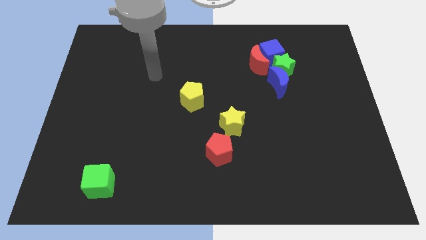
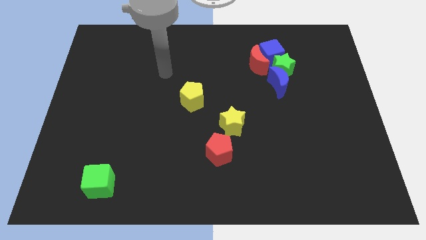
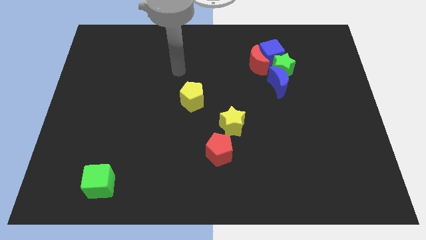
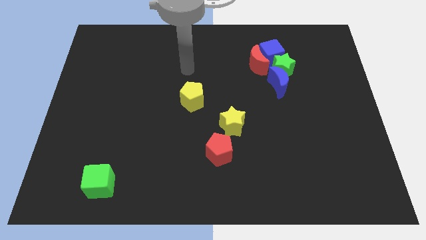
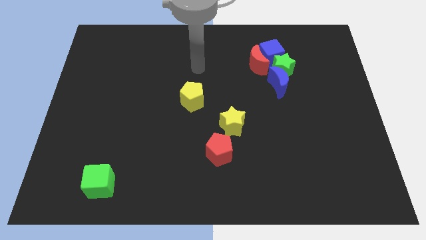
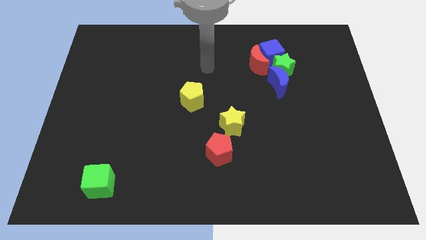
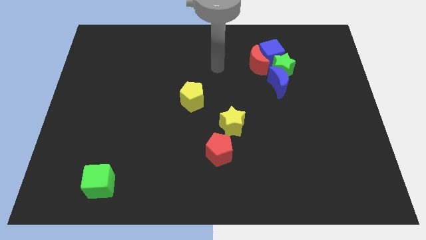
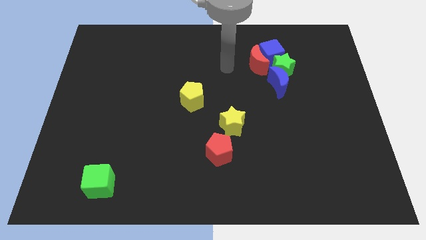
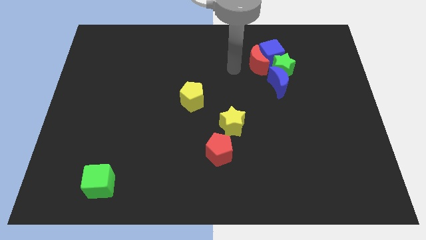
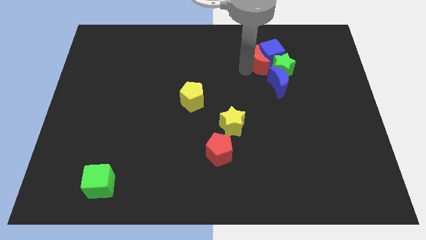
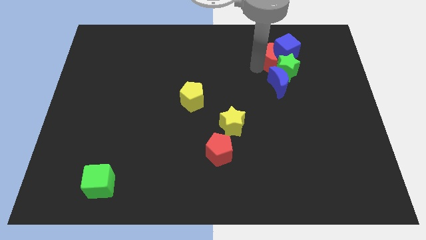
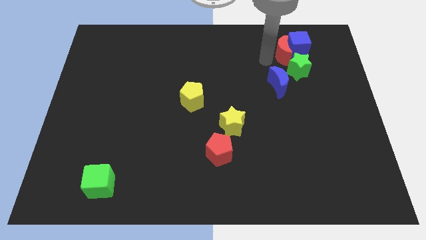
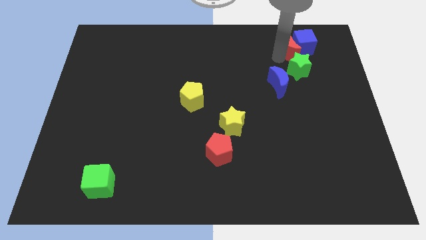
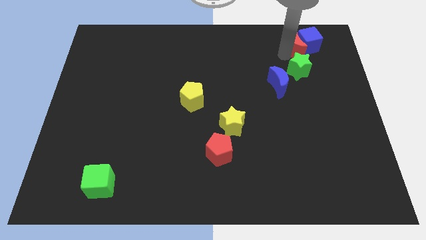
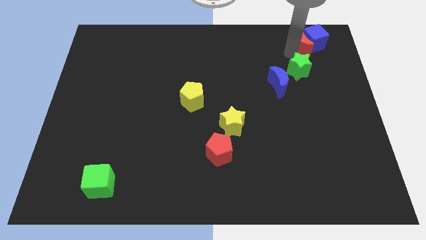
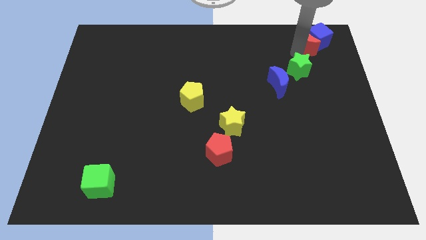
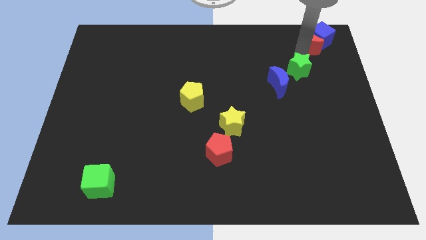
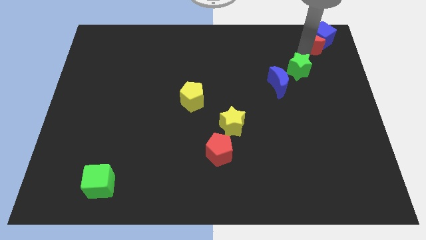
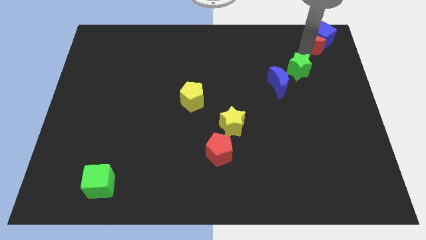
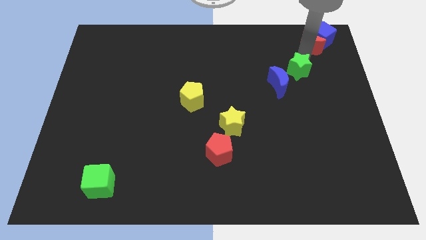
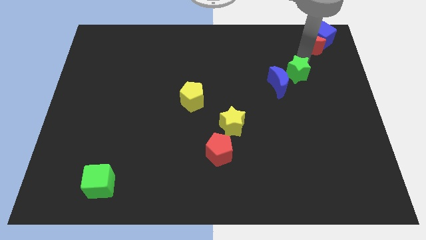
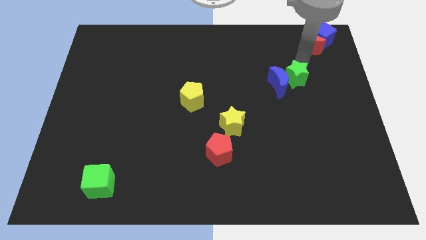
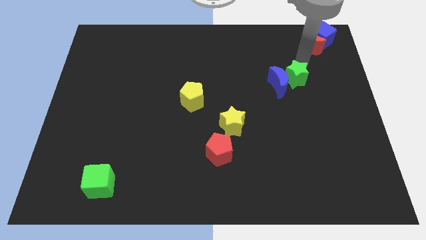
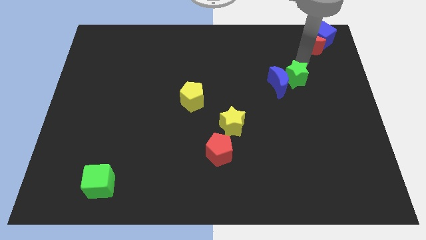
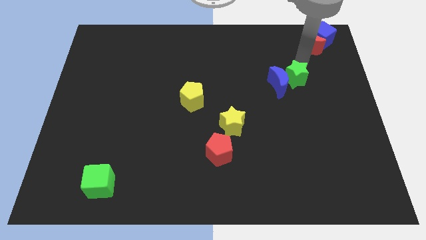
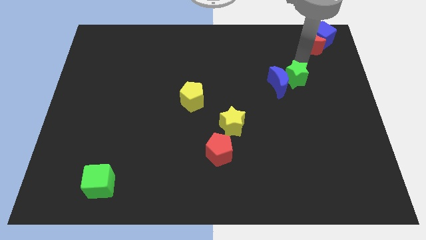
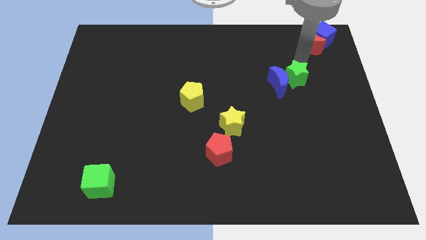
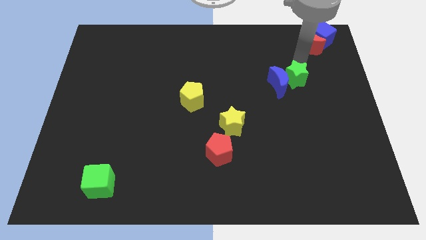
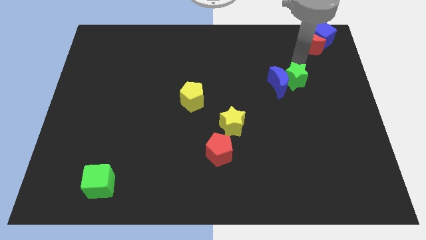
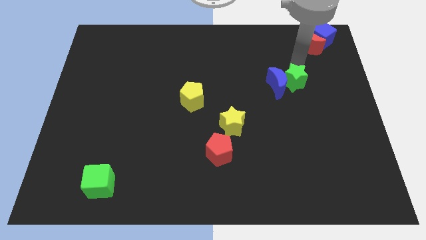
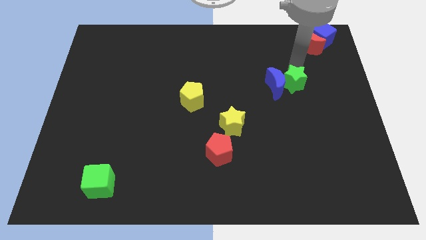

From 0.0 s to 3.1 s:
pull the green star apart from the blue moon, blue cube, and red moon

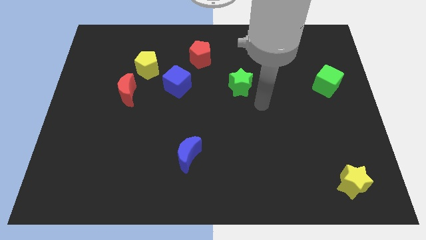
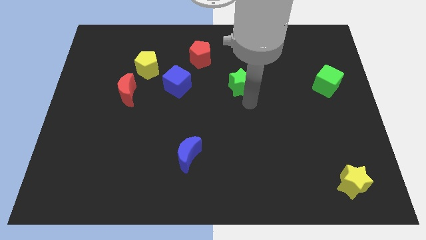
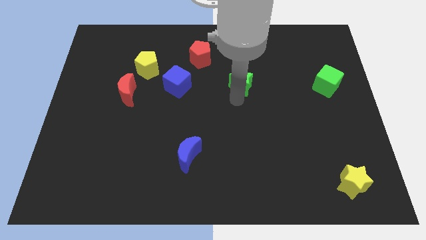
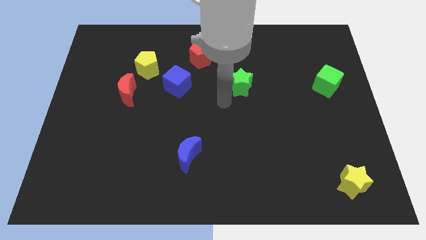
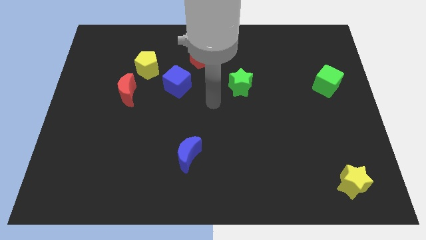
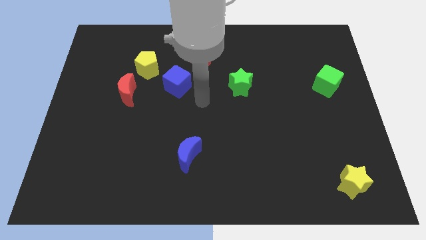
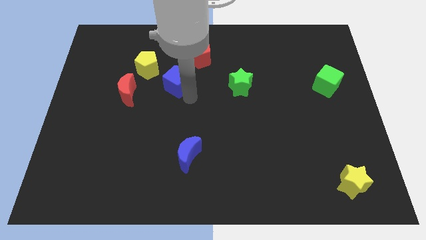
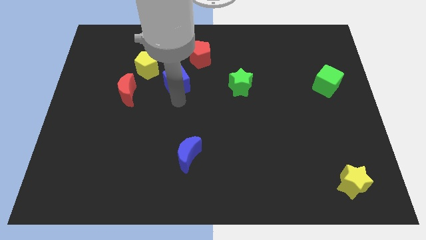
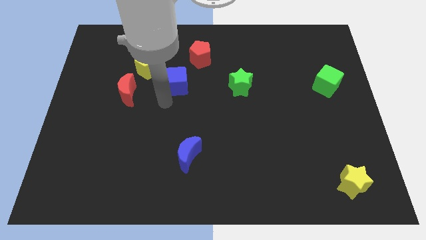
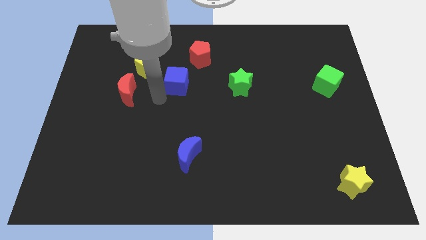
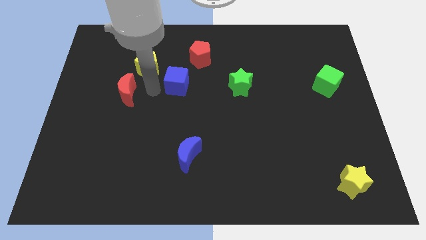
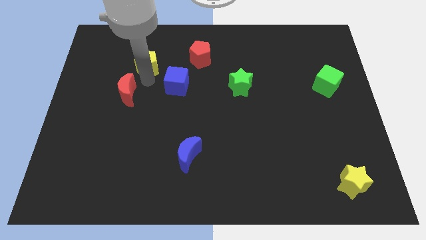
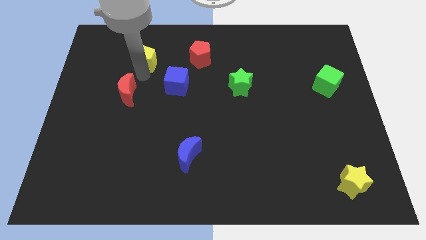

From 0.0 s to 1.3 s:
move the red moon away from the yellow pentagon

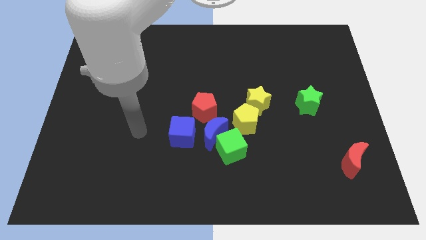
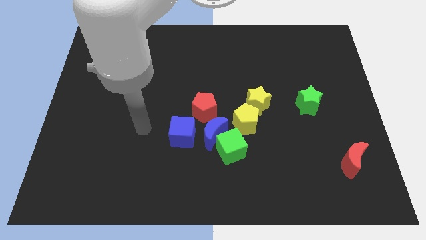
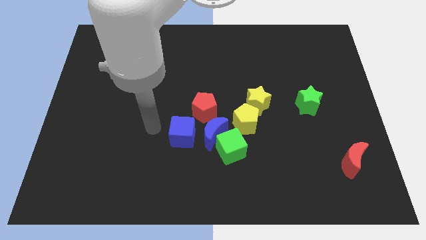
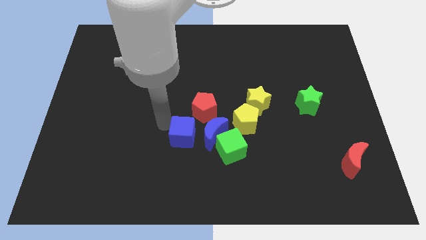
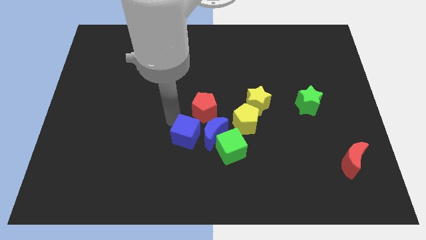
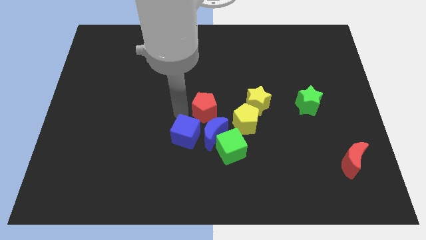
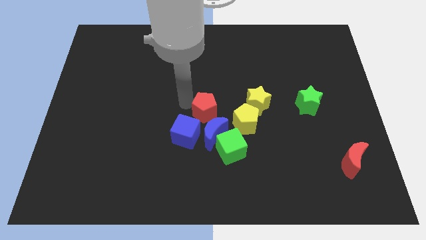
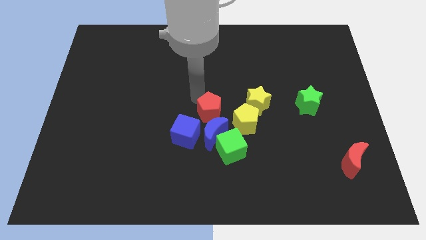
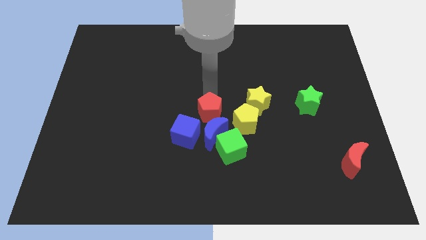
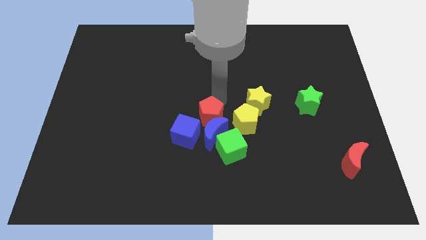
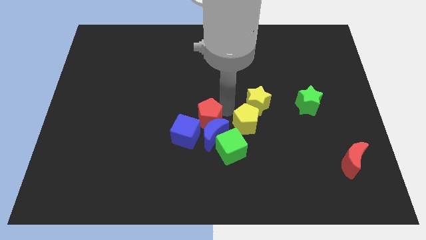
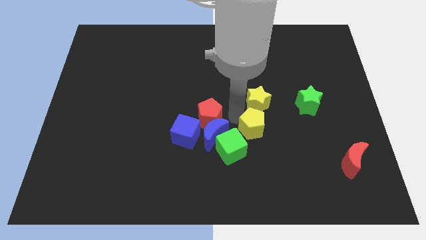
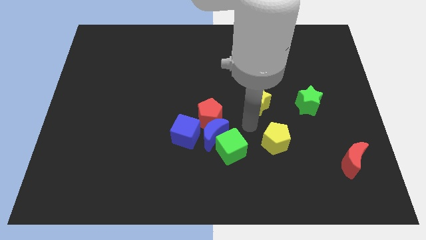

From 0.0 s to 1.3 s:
pull the yellow star apart from the yellow pentagon

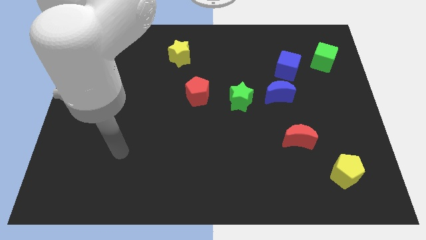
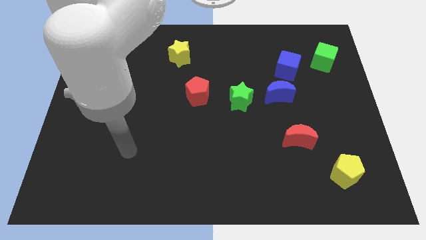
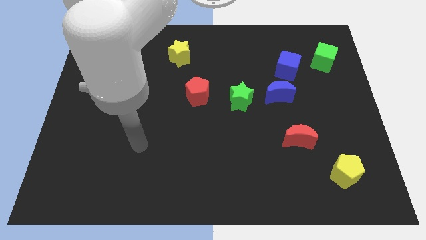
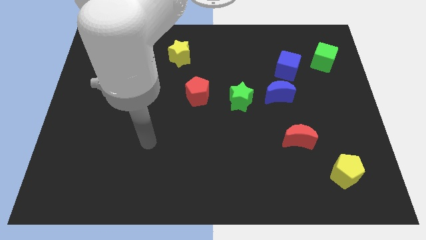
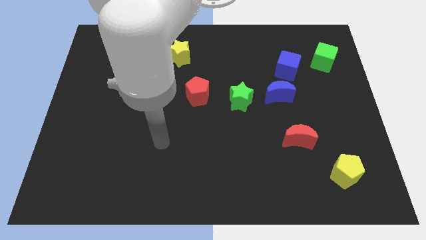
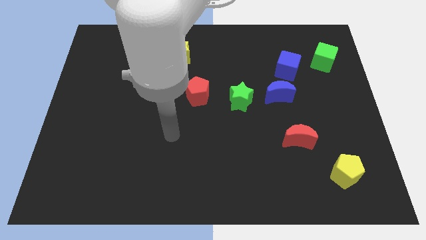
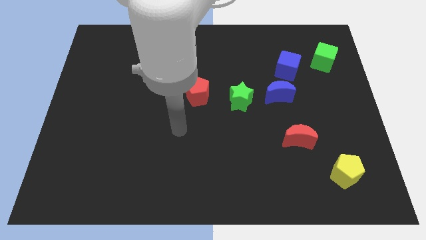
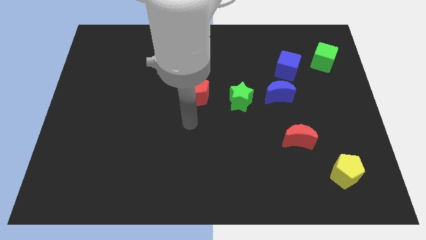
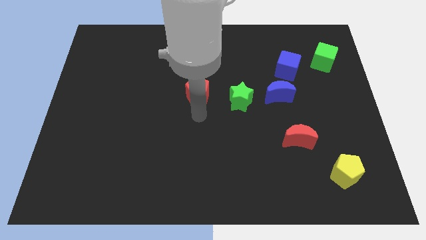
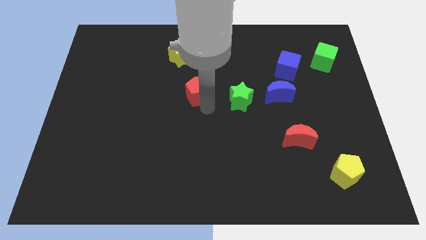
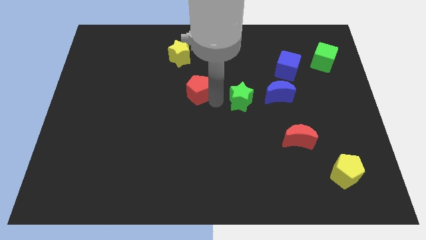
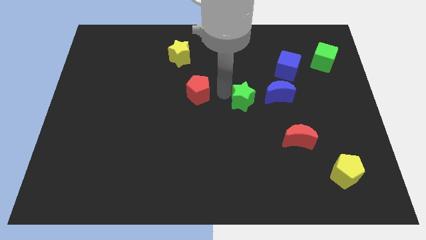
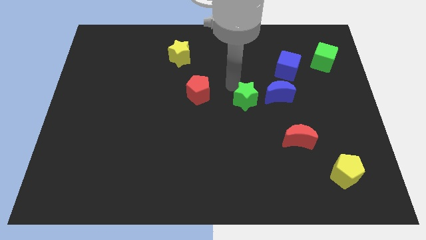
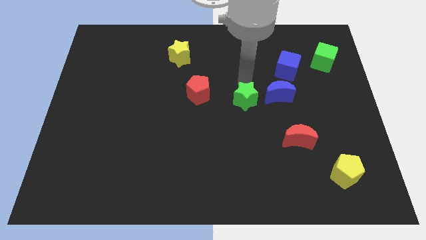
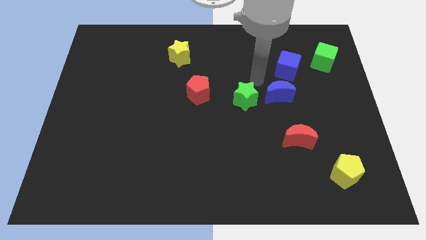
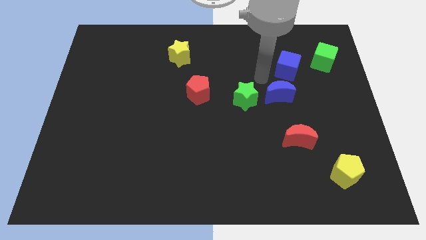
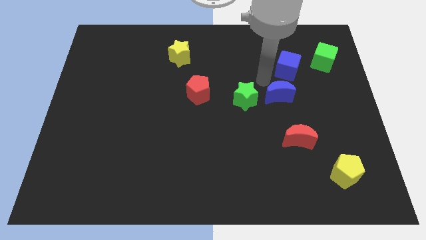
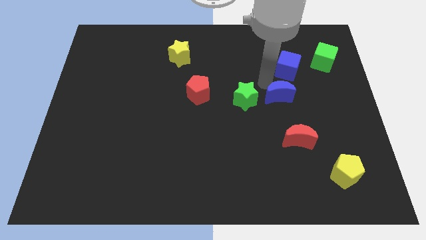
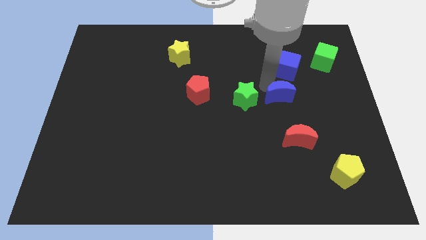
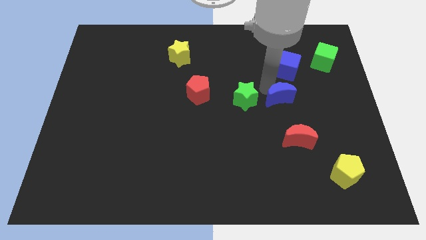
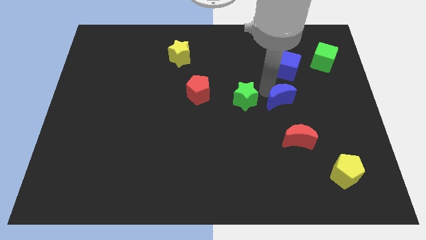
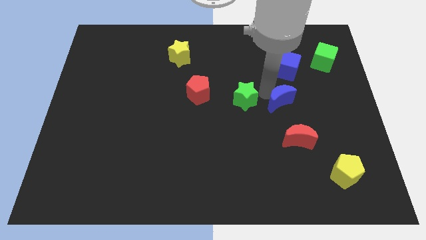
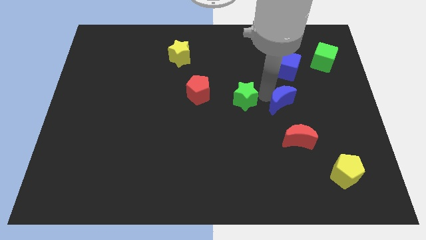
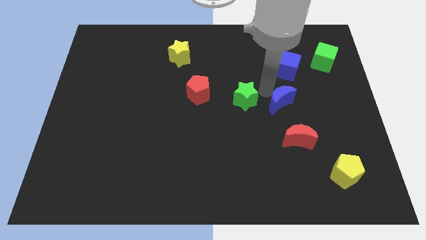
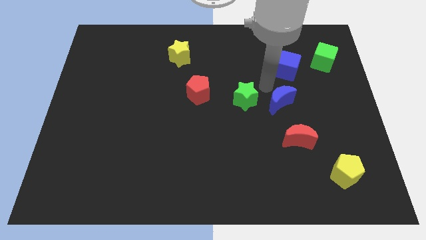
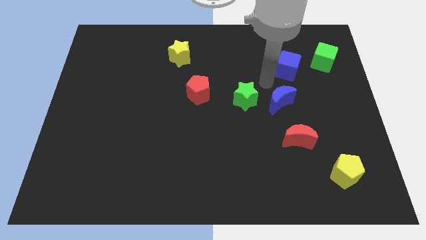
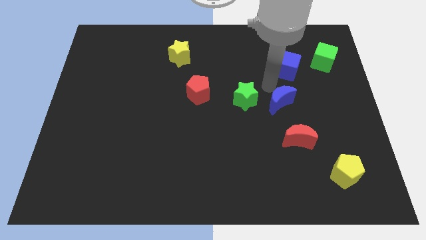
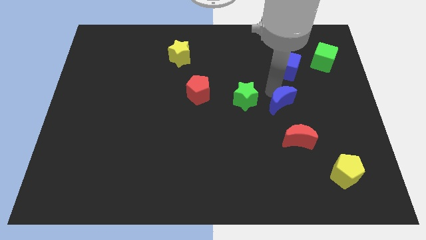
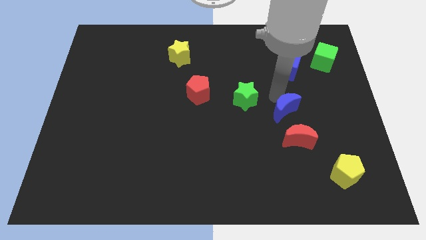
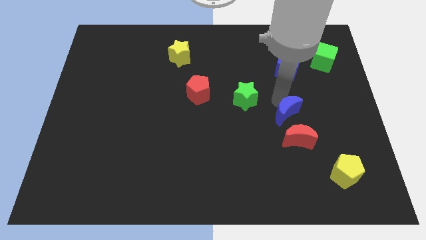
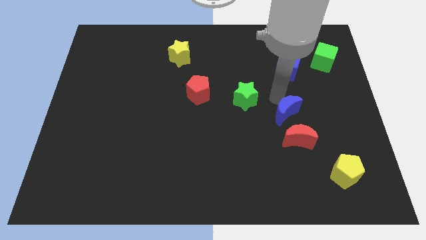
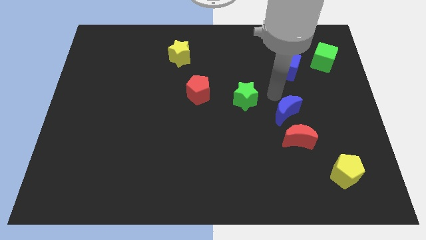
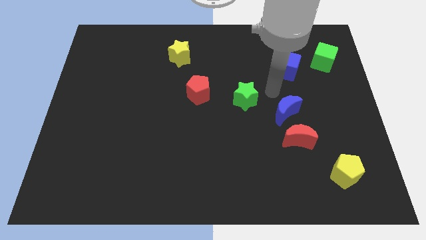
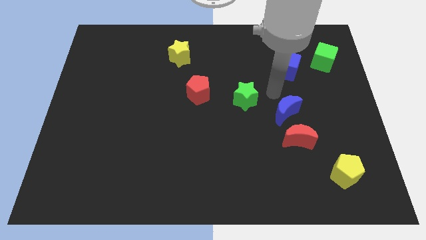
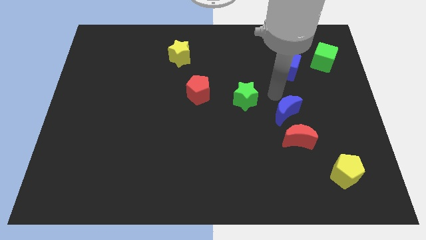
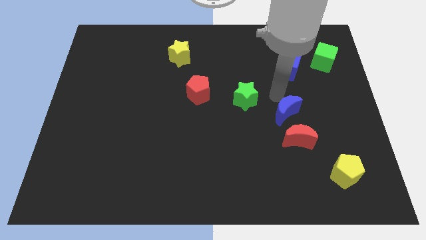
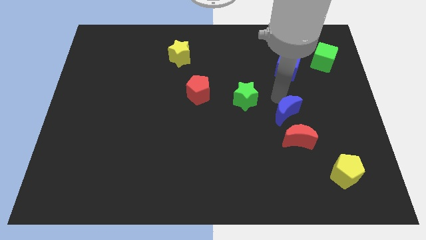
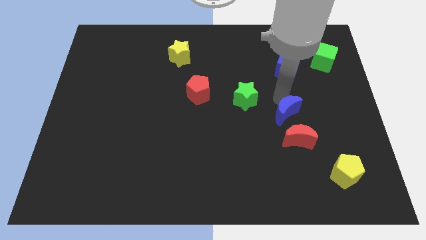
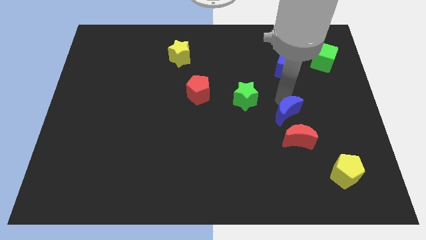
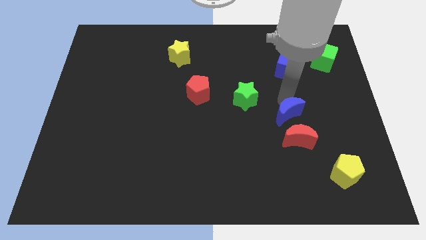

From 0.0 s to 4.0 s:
move the blue moon away from the blue cube and green star
